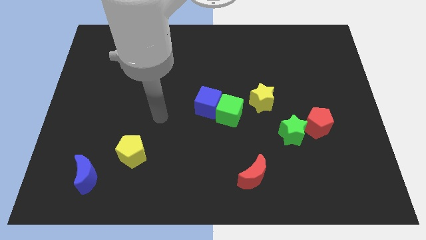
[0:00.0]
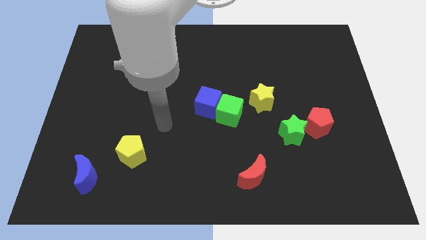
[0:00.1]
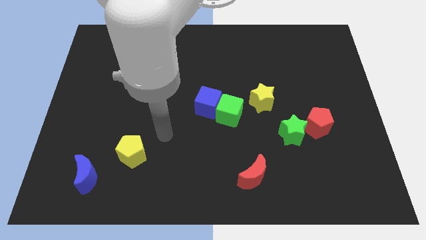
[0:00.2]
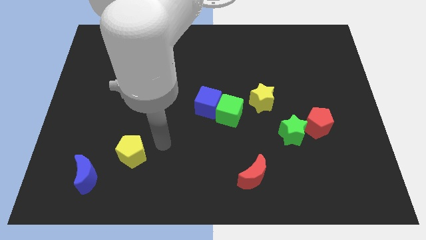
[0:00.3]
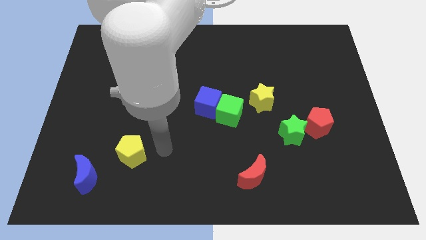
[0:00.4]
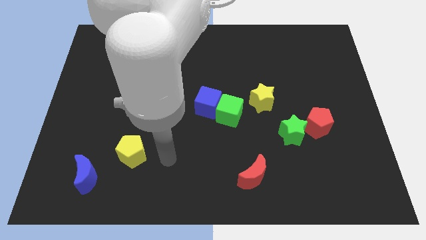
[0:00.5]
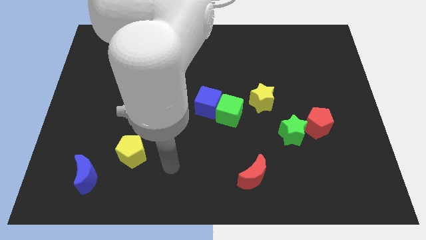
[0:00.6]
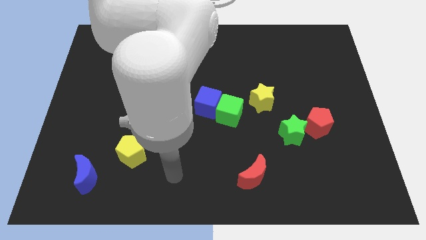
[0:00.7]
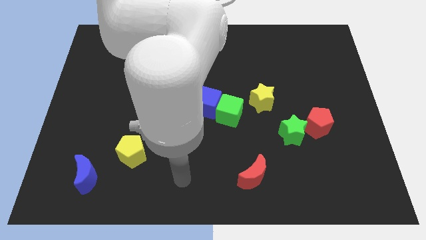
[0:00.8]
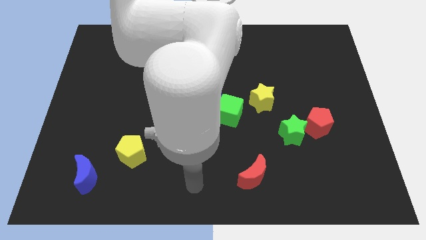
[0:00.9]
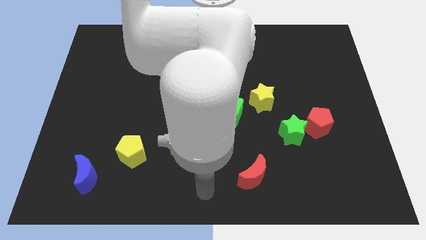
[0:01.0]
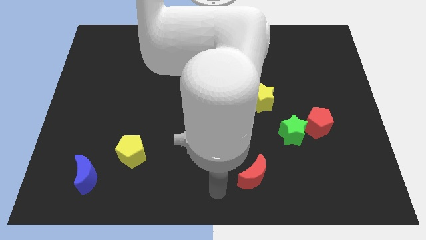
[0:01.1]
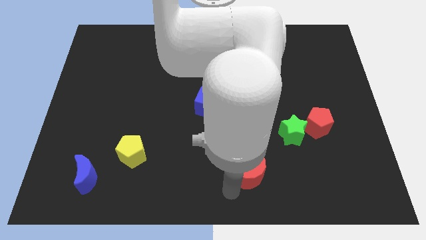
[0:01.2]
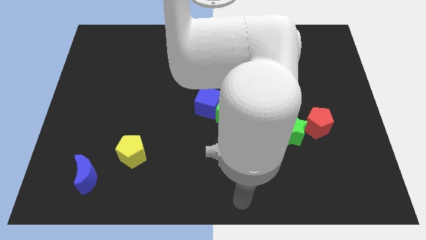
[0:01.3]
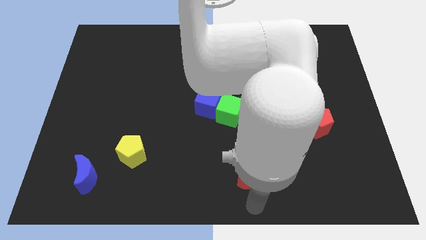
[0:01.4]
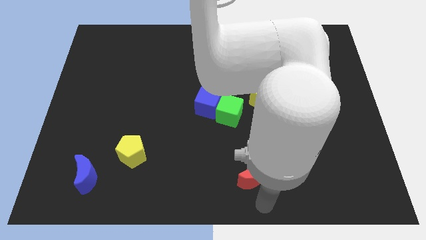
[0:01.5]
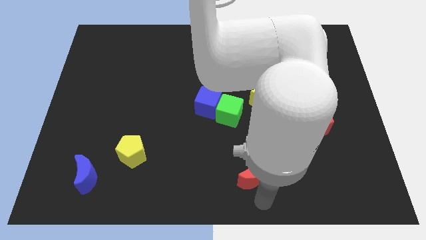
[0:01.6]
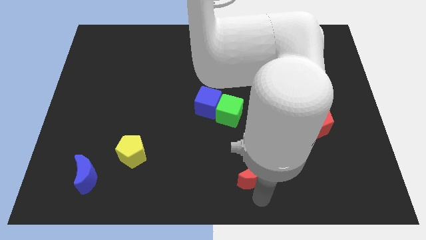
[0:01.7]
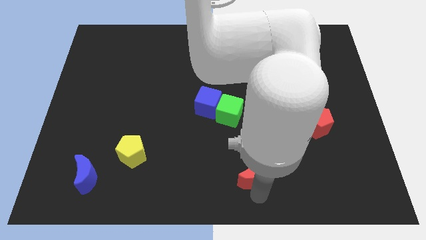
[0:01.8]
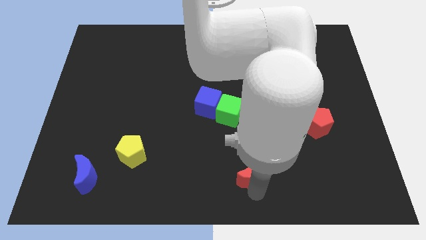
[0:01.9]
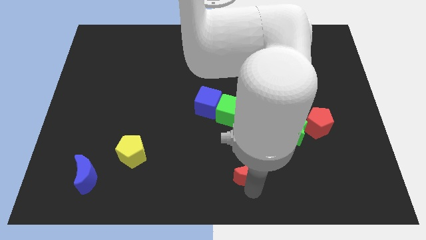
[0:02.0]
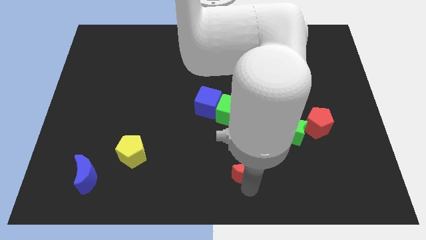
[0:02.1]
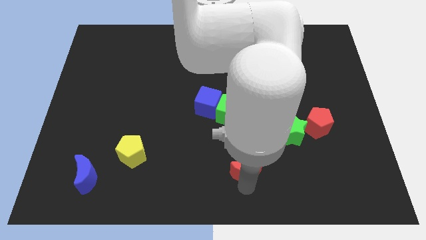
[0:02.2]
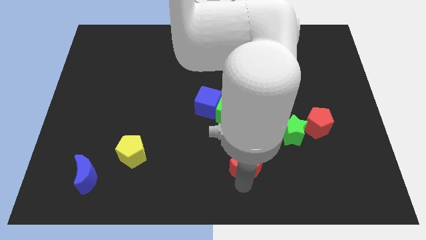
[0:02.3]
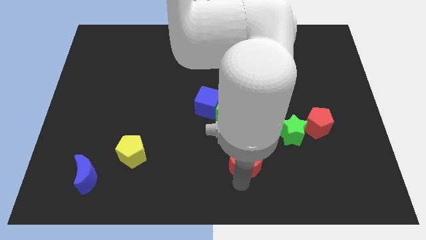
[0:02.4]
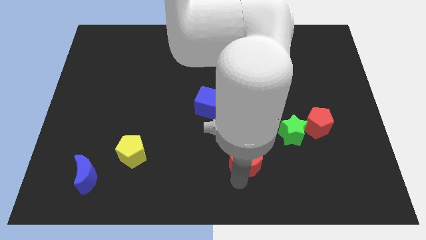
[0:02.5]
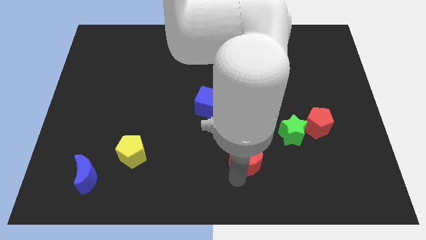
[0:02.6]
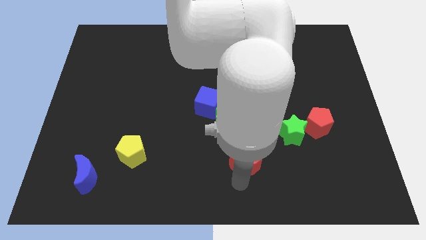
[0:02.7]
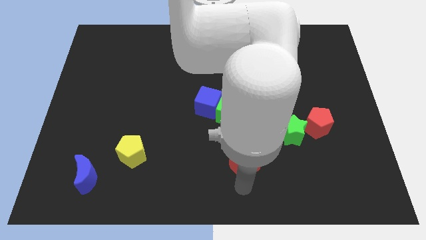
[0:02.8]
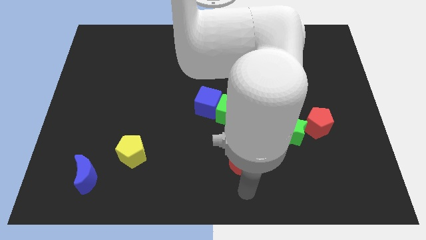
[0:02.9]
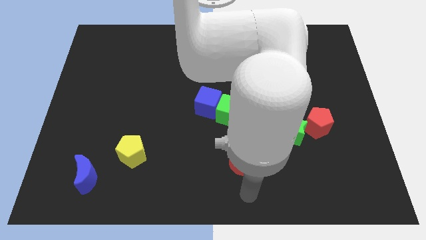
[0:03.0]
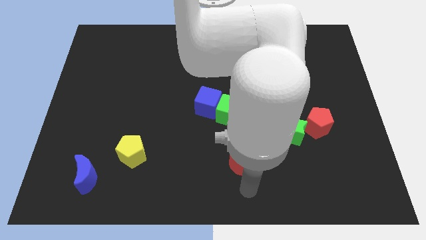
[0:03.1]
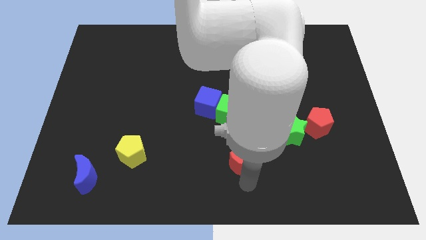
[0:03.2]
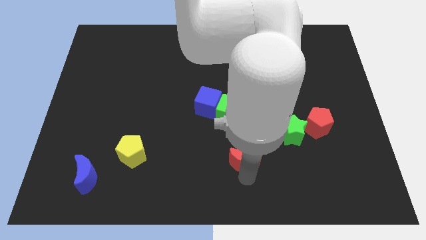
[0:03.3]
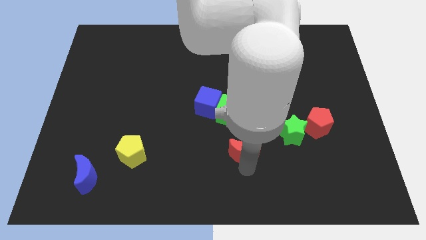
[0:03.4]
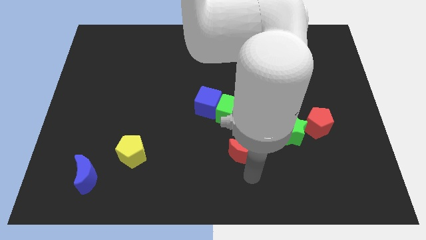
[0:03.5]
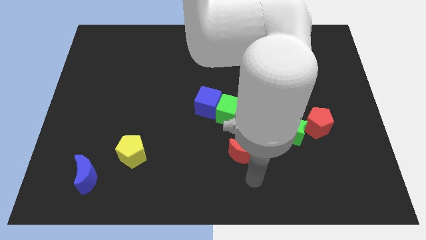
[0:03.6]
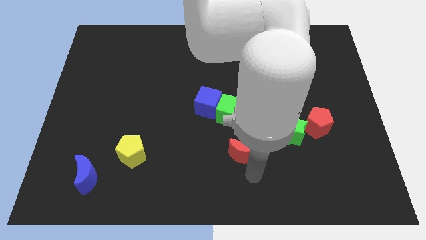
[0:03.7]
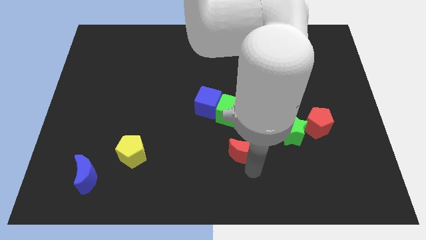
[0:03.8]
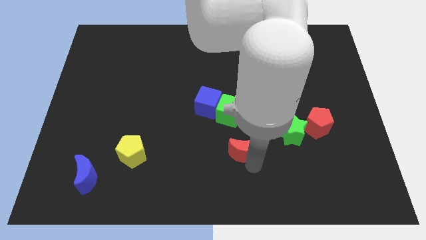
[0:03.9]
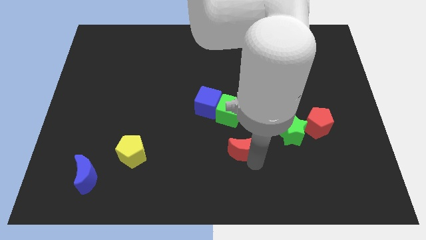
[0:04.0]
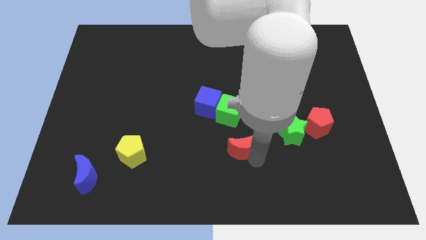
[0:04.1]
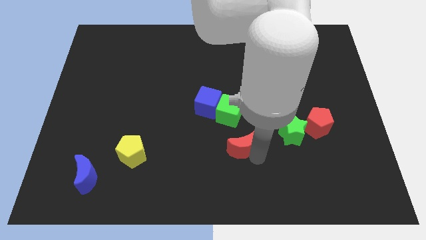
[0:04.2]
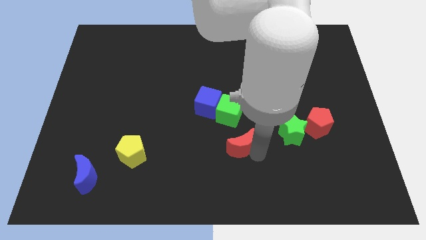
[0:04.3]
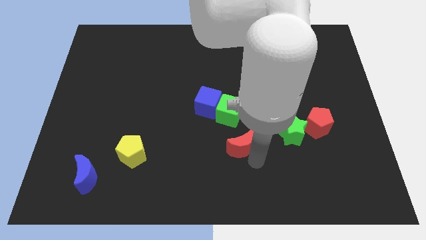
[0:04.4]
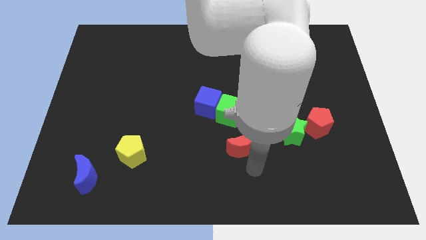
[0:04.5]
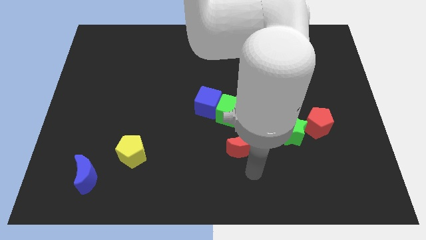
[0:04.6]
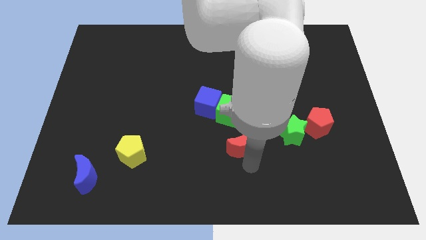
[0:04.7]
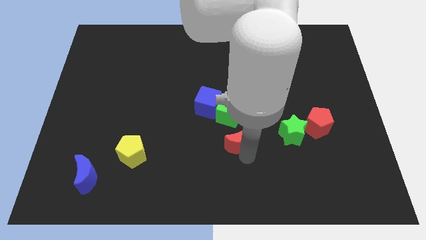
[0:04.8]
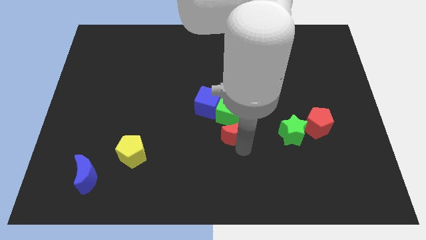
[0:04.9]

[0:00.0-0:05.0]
put the red moon to the green cube

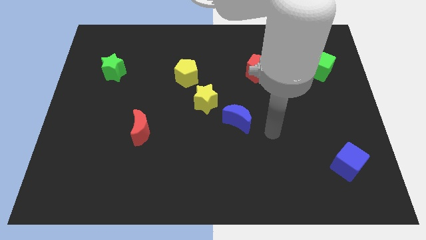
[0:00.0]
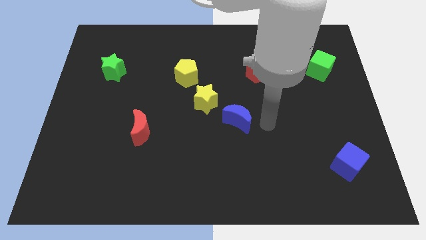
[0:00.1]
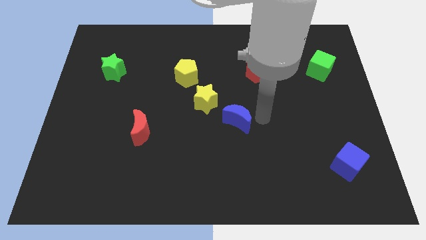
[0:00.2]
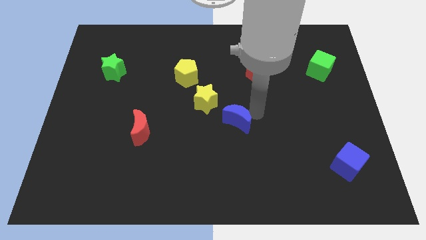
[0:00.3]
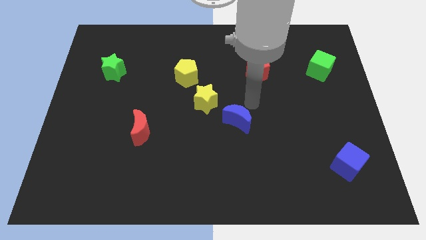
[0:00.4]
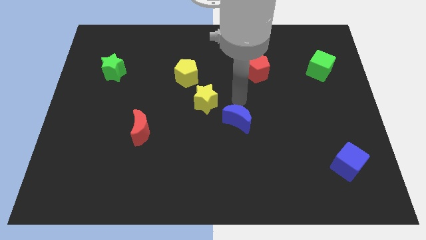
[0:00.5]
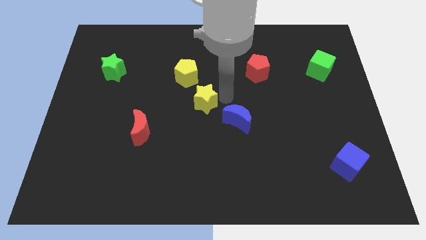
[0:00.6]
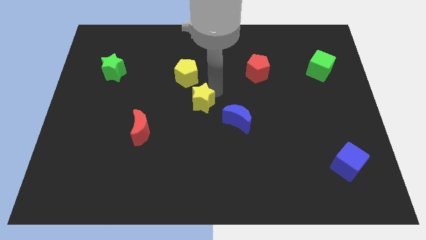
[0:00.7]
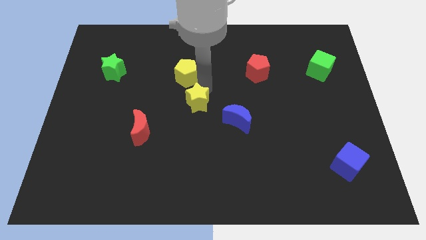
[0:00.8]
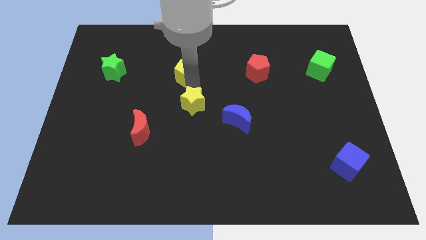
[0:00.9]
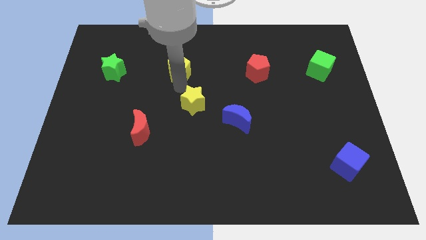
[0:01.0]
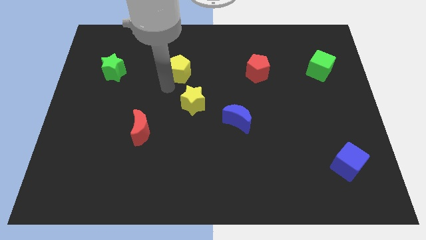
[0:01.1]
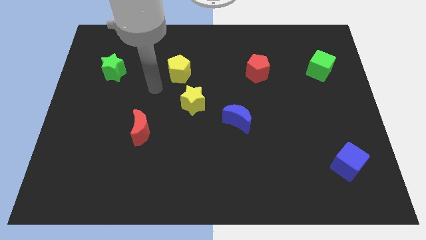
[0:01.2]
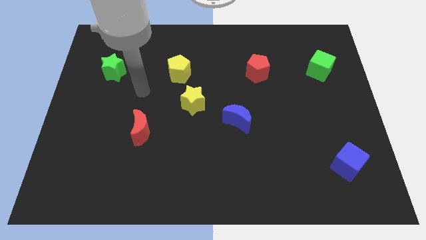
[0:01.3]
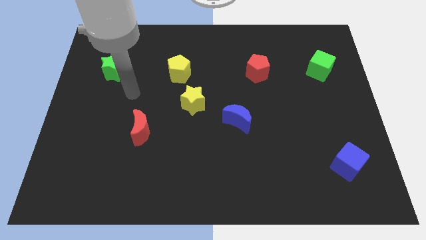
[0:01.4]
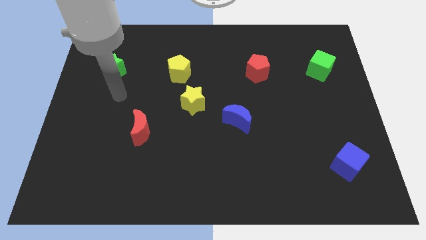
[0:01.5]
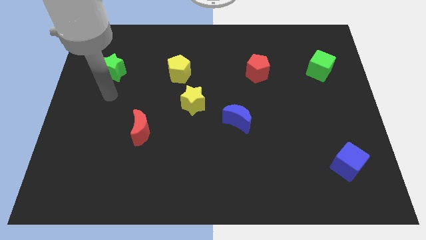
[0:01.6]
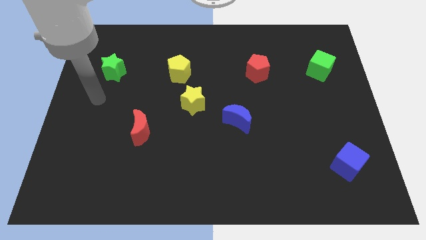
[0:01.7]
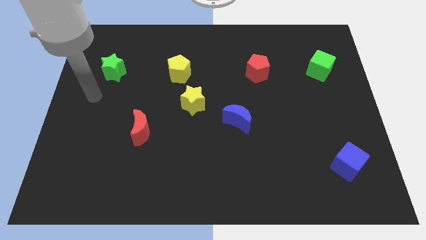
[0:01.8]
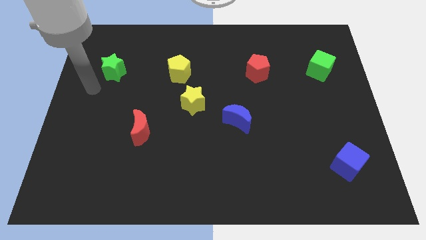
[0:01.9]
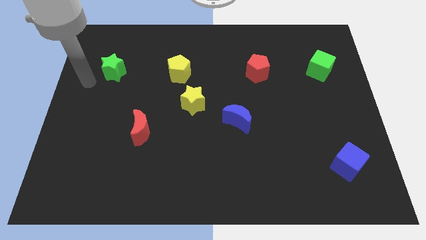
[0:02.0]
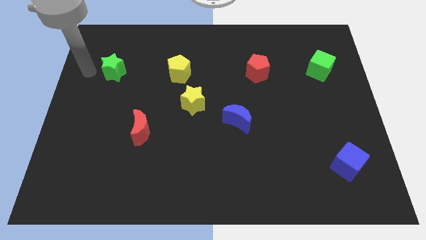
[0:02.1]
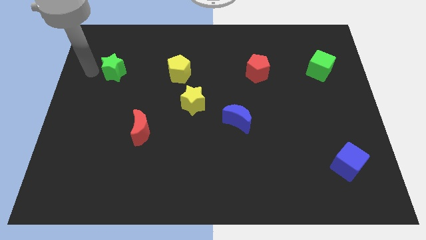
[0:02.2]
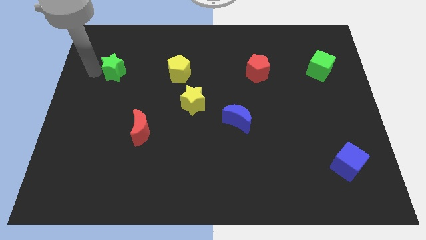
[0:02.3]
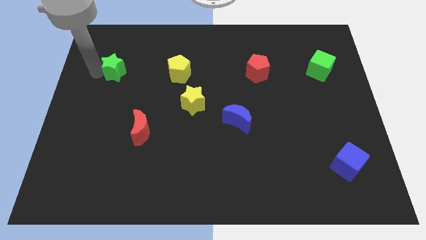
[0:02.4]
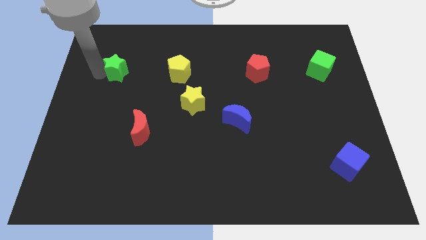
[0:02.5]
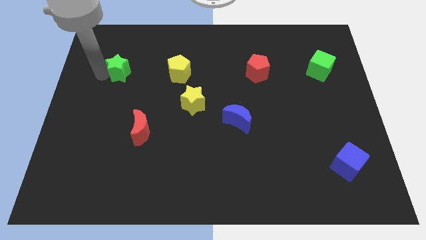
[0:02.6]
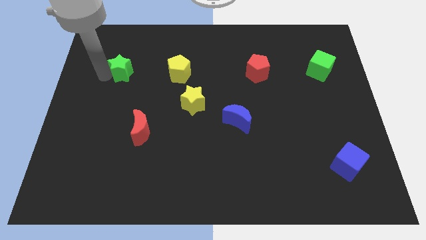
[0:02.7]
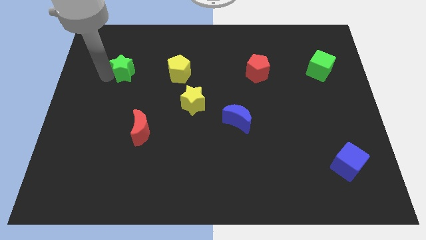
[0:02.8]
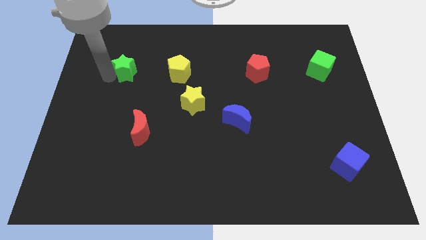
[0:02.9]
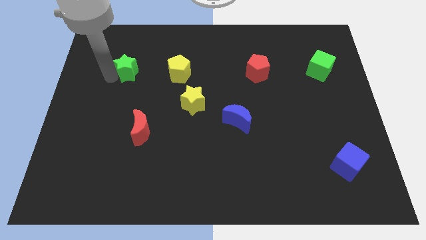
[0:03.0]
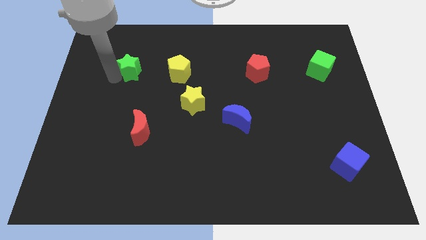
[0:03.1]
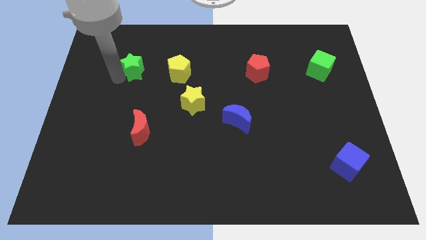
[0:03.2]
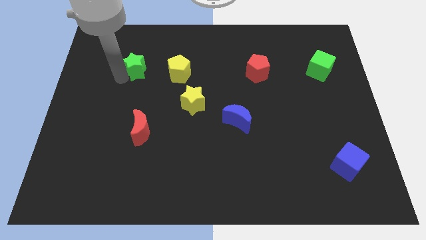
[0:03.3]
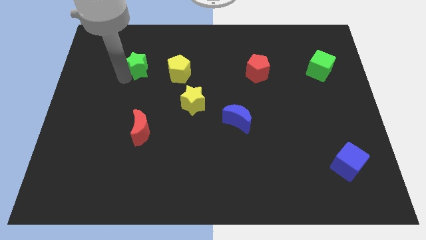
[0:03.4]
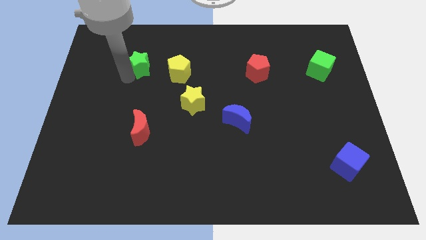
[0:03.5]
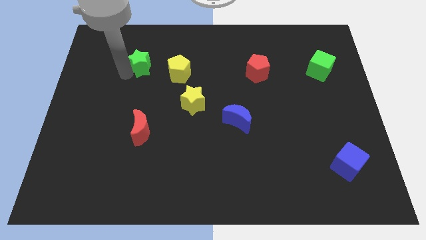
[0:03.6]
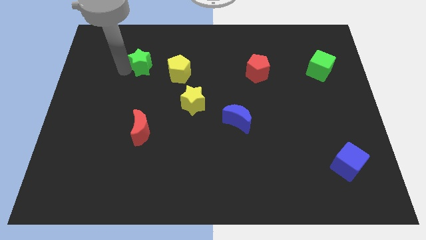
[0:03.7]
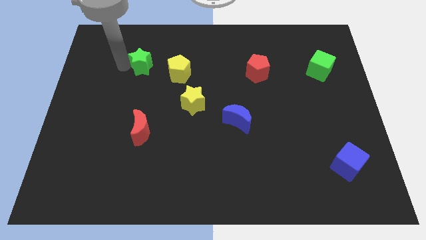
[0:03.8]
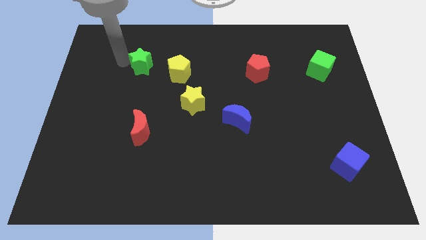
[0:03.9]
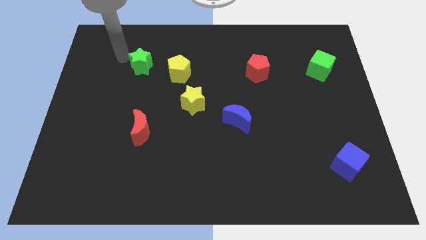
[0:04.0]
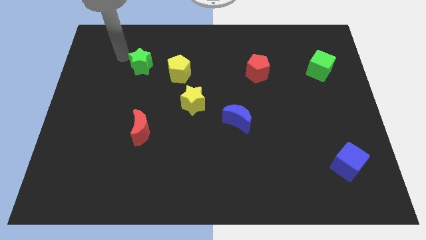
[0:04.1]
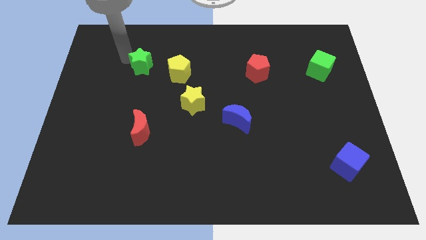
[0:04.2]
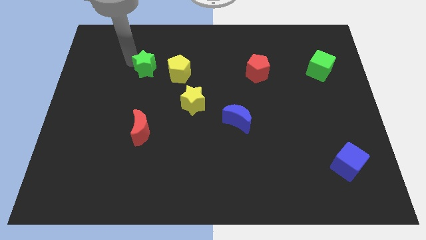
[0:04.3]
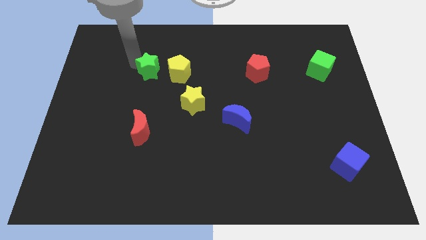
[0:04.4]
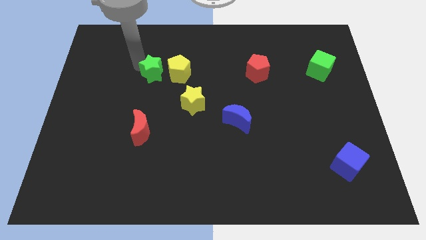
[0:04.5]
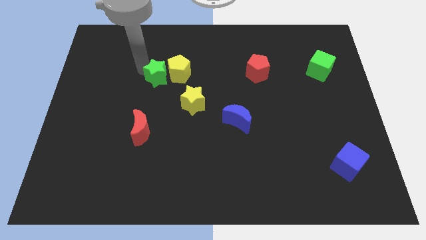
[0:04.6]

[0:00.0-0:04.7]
push the green star close to the yellow pentagon
